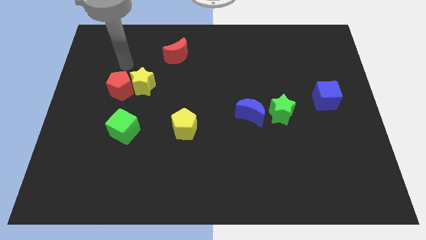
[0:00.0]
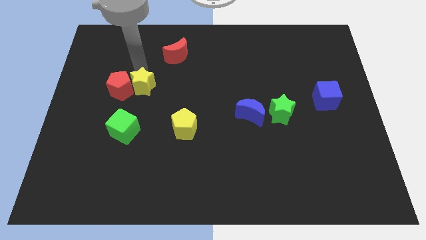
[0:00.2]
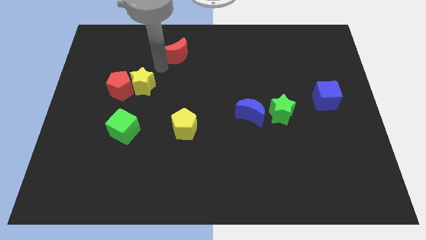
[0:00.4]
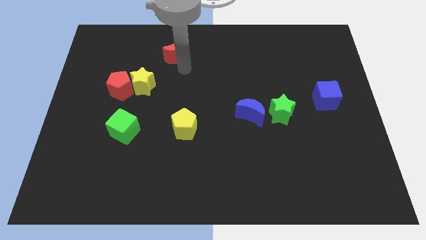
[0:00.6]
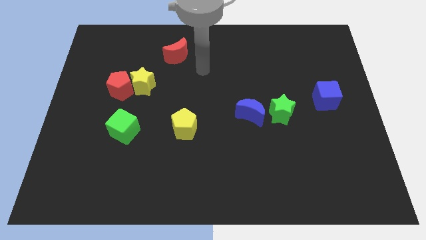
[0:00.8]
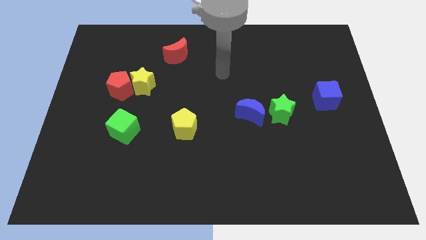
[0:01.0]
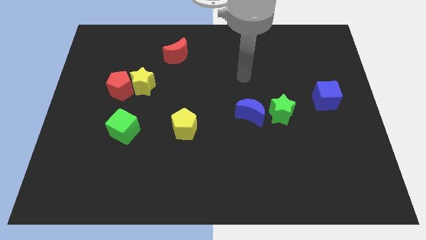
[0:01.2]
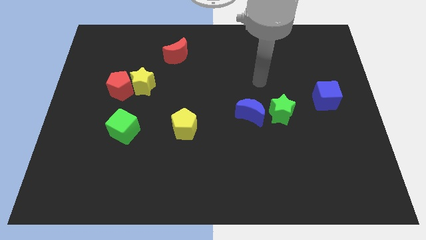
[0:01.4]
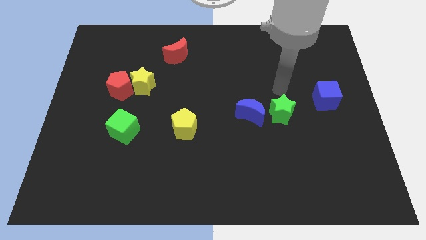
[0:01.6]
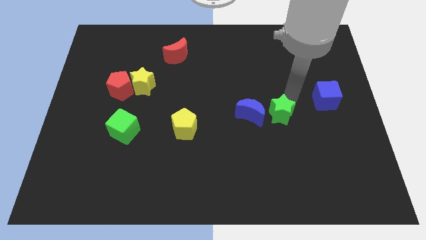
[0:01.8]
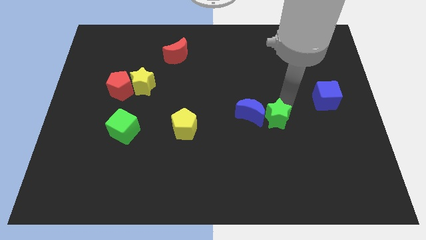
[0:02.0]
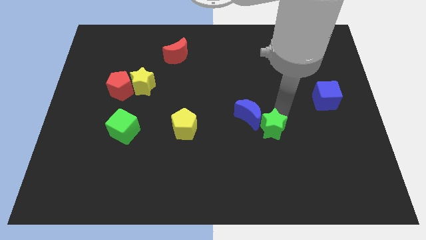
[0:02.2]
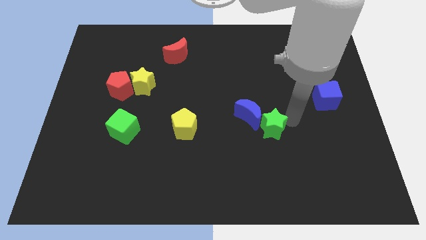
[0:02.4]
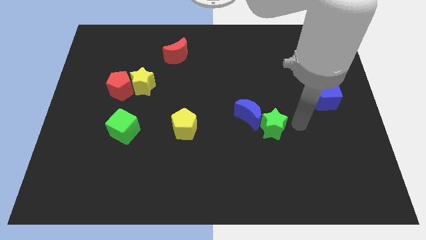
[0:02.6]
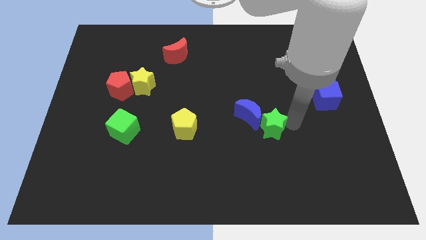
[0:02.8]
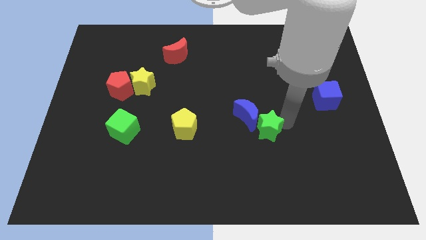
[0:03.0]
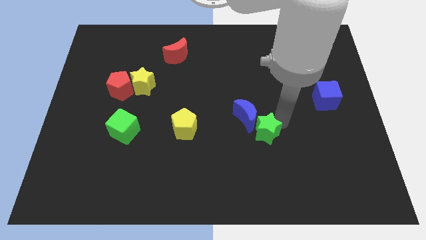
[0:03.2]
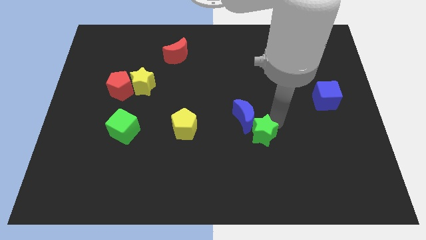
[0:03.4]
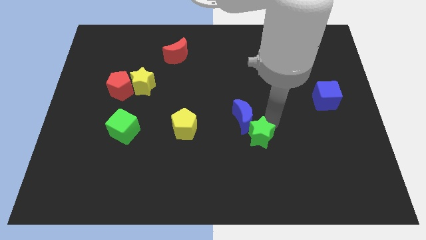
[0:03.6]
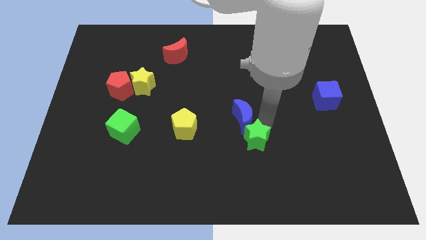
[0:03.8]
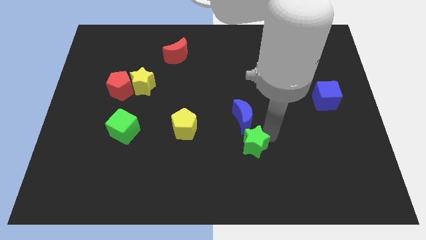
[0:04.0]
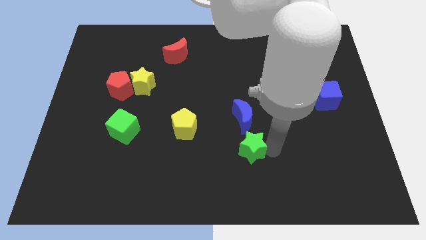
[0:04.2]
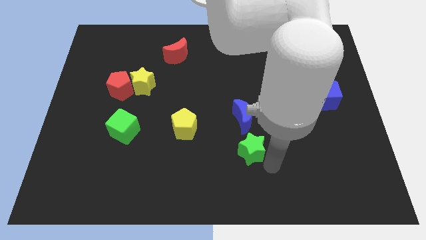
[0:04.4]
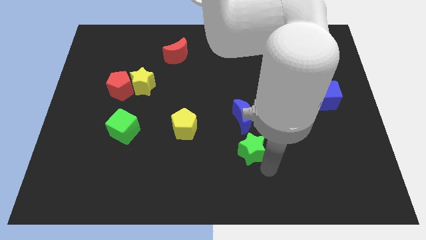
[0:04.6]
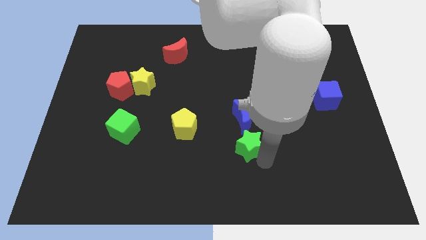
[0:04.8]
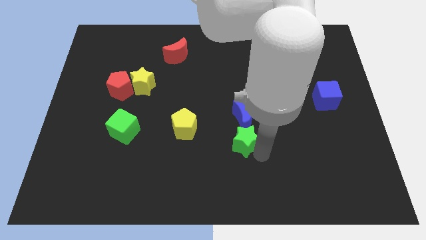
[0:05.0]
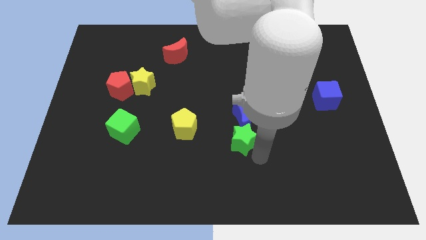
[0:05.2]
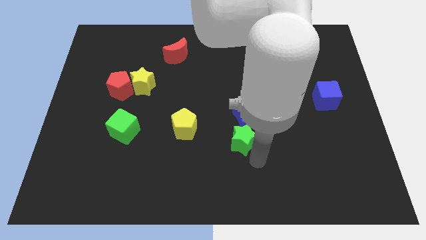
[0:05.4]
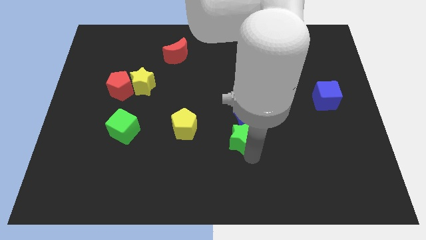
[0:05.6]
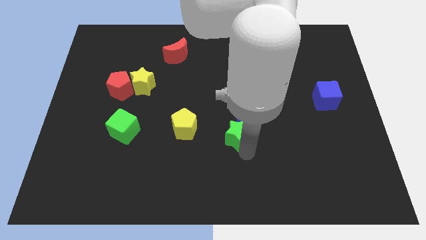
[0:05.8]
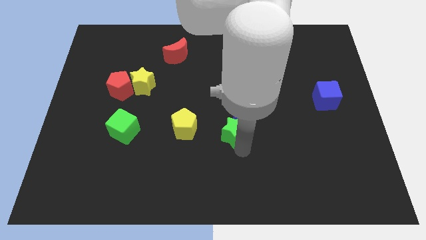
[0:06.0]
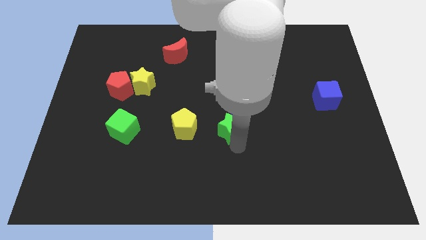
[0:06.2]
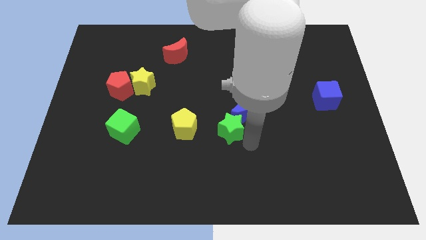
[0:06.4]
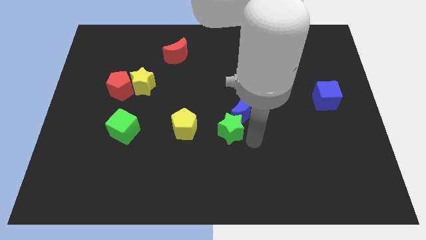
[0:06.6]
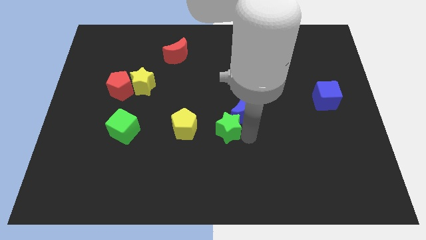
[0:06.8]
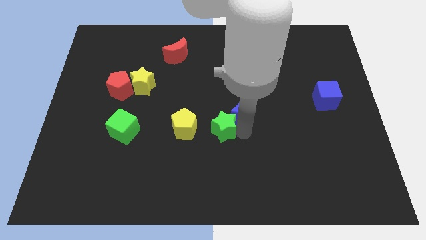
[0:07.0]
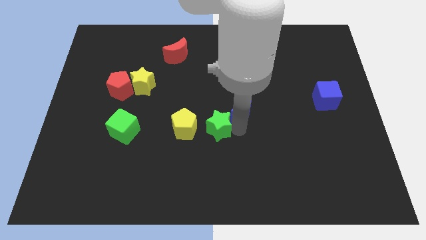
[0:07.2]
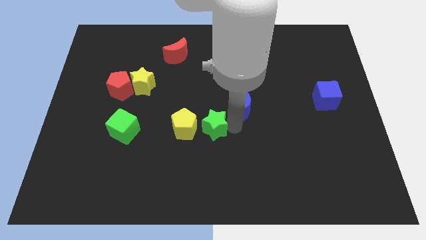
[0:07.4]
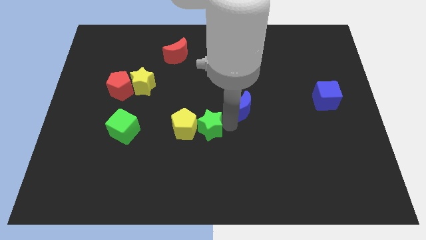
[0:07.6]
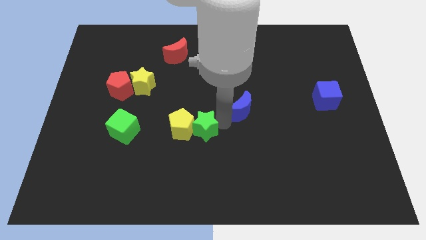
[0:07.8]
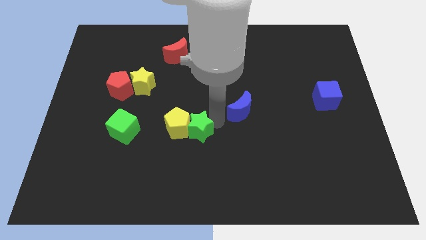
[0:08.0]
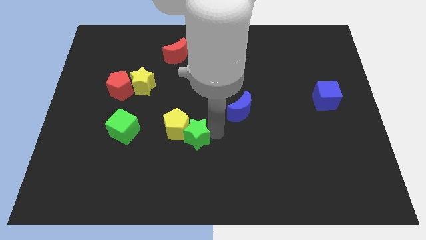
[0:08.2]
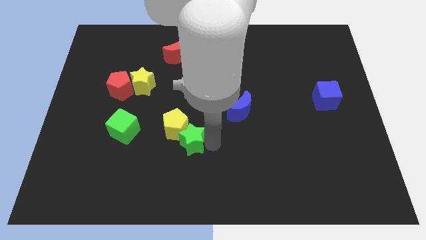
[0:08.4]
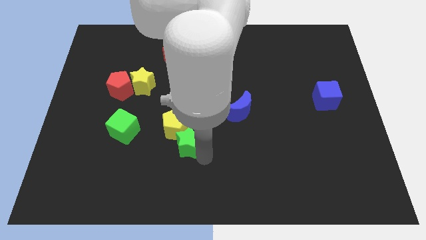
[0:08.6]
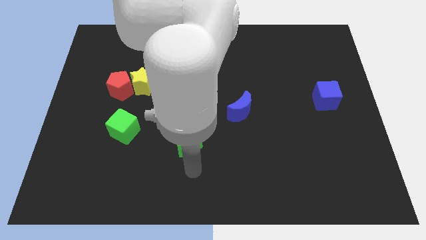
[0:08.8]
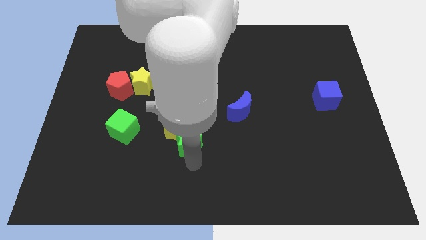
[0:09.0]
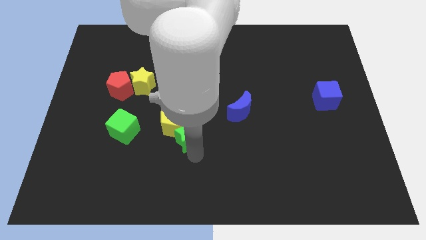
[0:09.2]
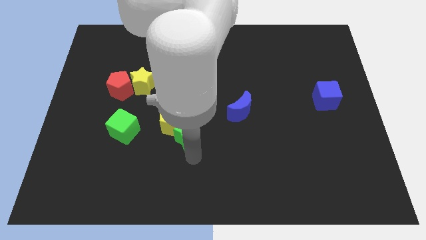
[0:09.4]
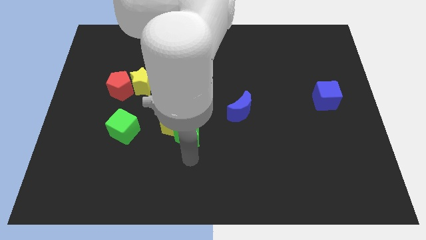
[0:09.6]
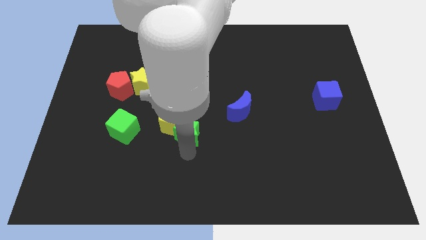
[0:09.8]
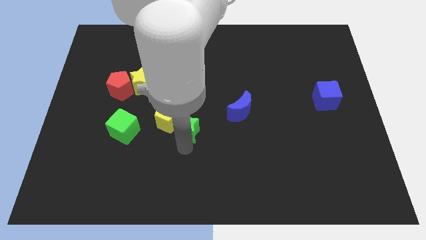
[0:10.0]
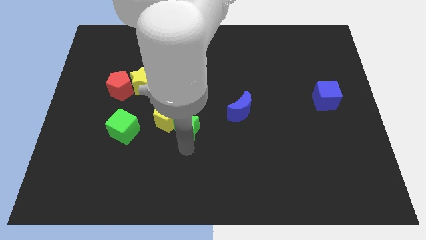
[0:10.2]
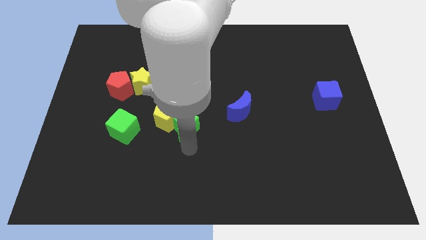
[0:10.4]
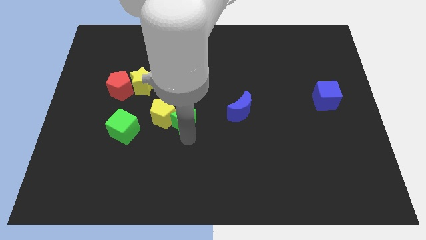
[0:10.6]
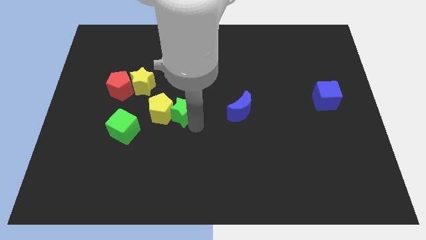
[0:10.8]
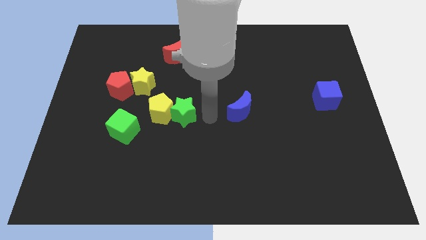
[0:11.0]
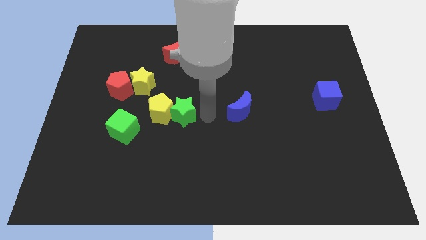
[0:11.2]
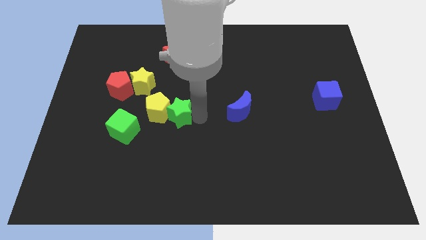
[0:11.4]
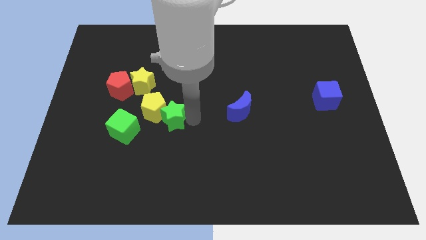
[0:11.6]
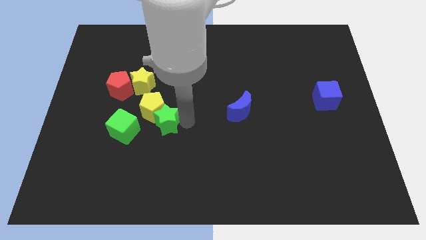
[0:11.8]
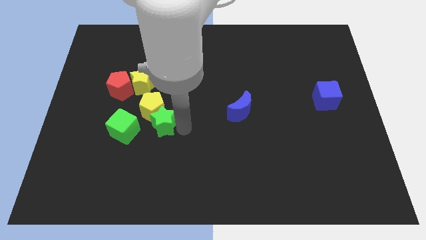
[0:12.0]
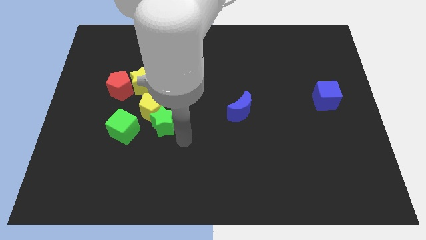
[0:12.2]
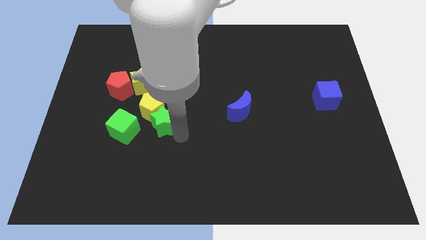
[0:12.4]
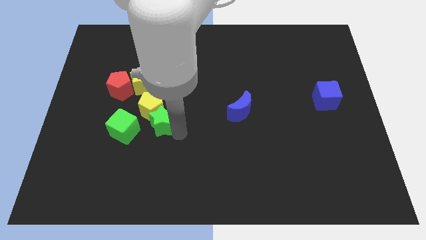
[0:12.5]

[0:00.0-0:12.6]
slide the green star diagonally up and to the right of the green cube

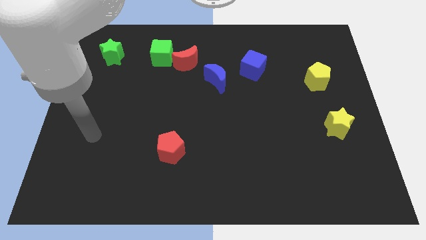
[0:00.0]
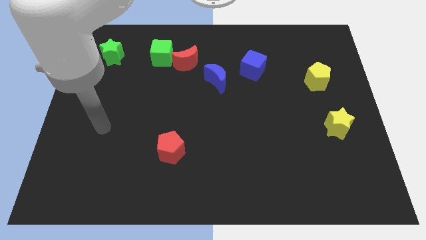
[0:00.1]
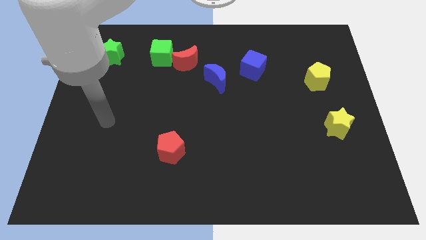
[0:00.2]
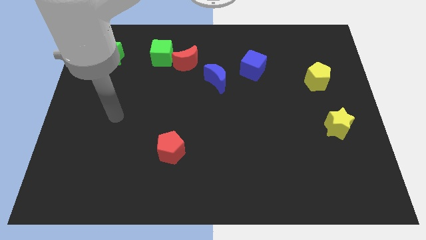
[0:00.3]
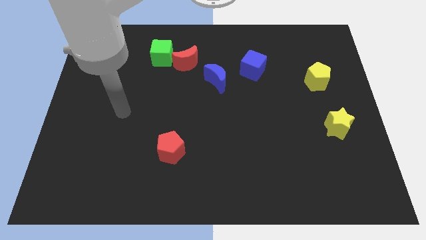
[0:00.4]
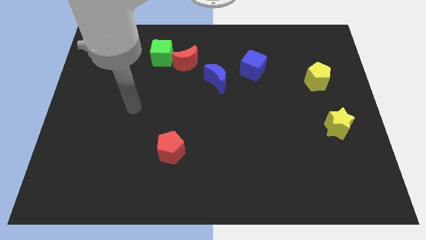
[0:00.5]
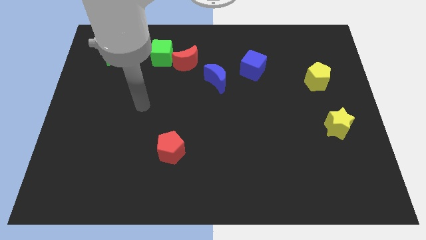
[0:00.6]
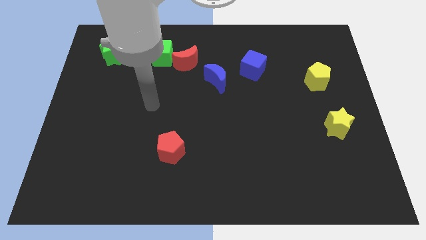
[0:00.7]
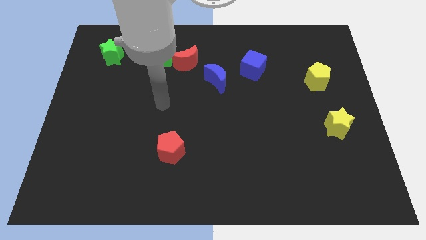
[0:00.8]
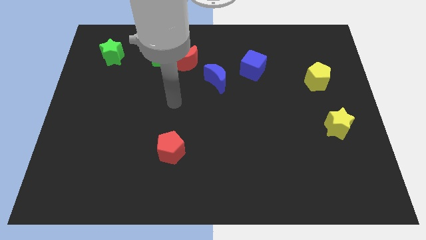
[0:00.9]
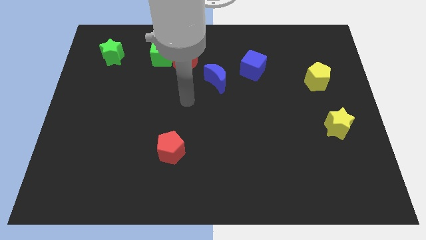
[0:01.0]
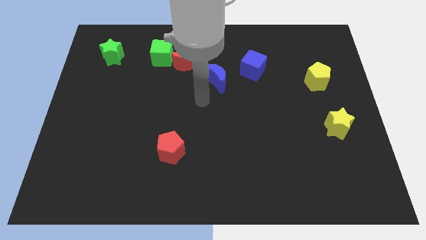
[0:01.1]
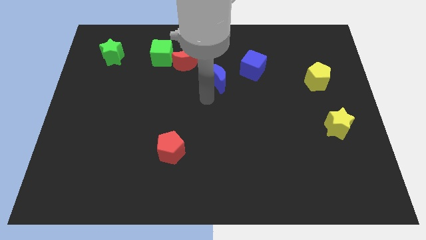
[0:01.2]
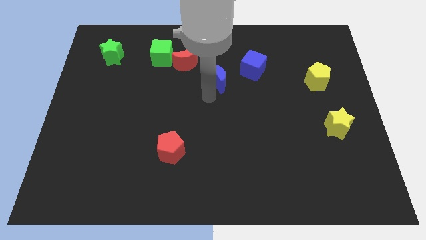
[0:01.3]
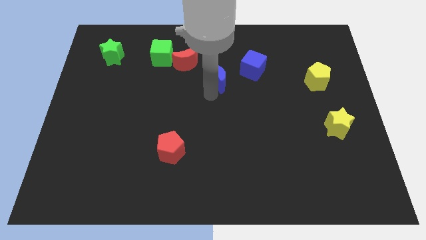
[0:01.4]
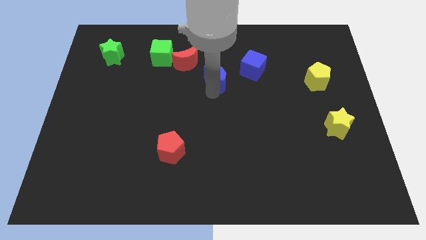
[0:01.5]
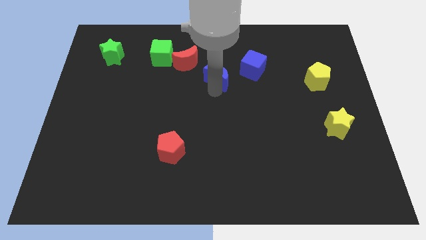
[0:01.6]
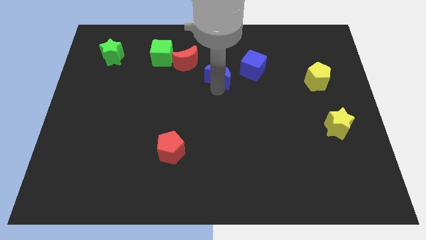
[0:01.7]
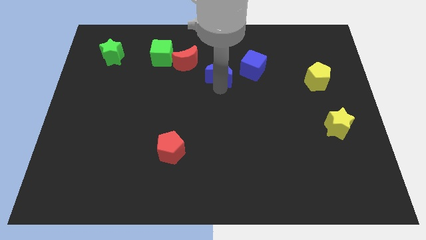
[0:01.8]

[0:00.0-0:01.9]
slide the blue moon to the right of the red moon

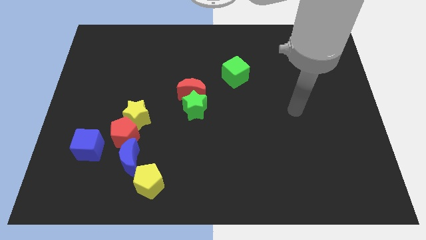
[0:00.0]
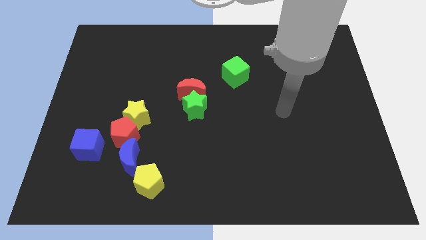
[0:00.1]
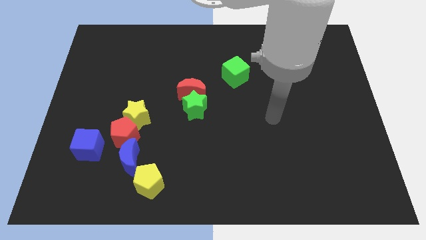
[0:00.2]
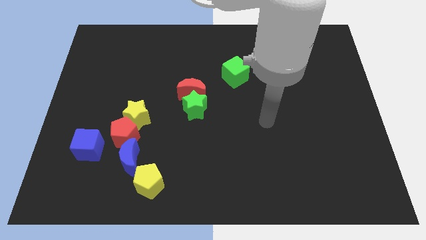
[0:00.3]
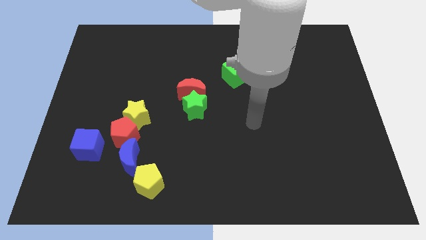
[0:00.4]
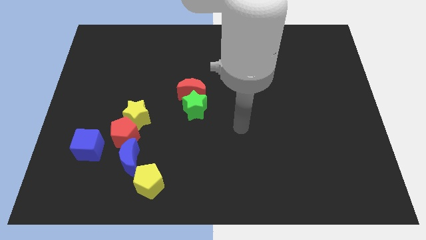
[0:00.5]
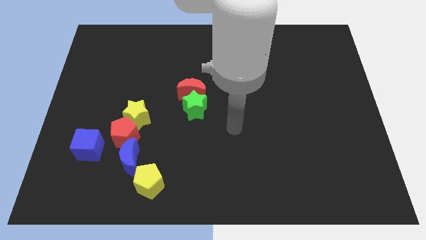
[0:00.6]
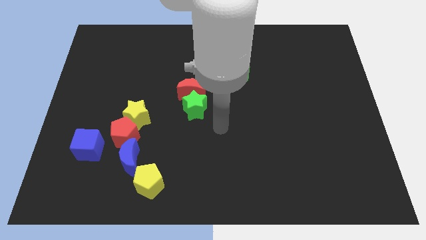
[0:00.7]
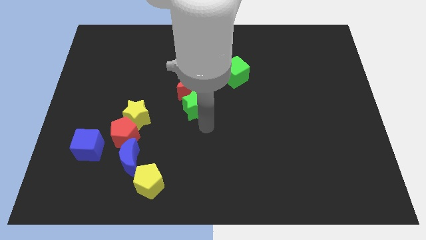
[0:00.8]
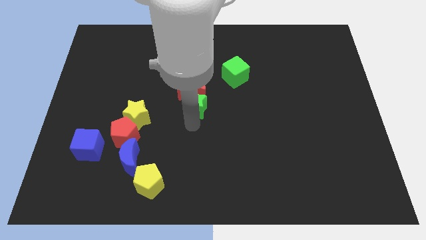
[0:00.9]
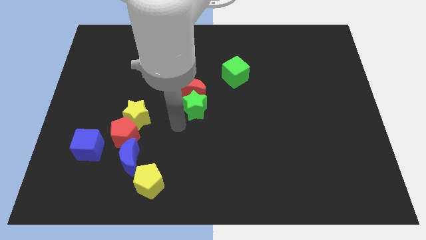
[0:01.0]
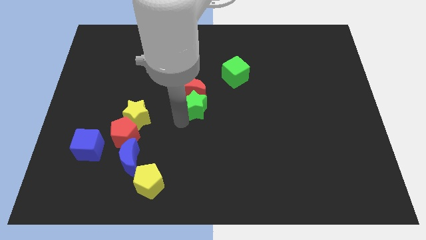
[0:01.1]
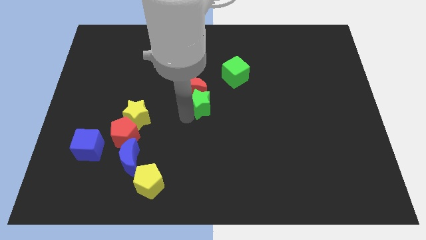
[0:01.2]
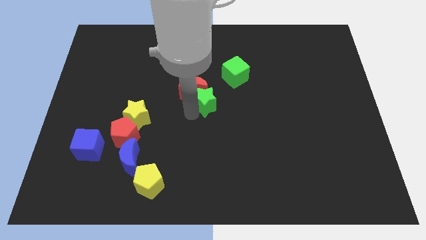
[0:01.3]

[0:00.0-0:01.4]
put the green star to the right of the red moon
